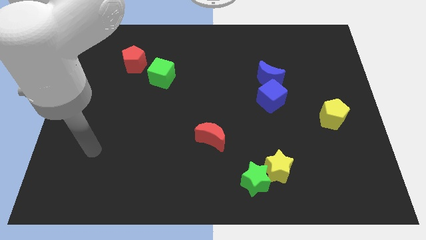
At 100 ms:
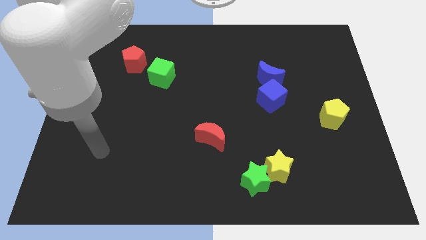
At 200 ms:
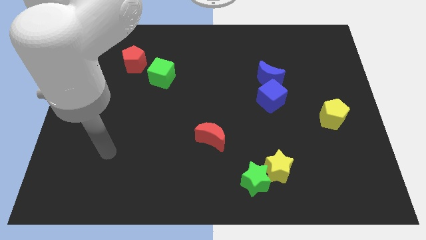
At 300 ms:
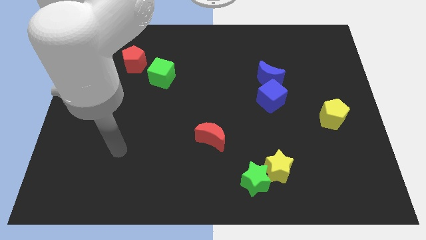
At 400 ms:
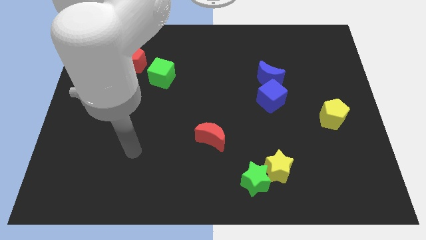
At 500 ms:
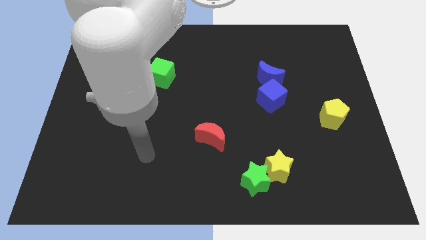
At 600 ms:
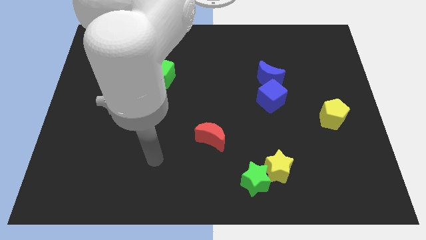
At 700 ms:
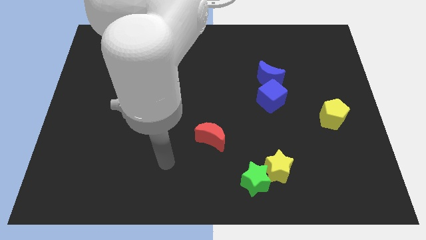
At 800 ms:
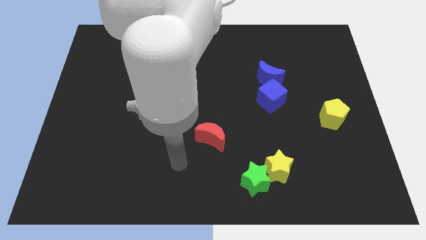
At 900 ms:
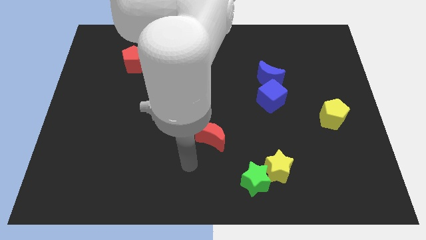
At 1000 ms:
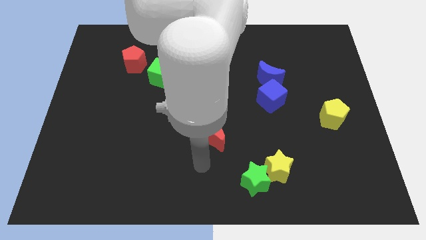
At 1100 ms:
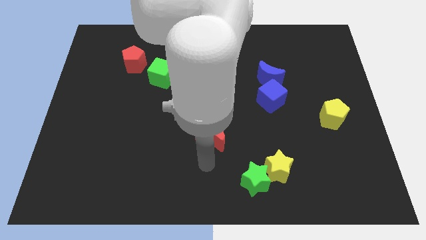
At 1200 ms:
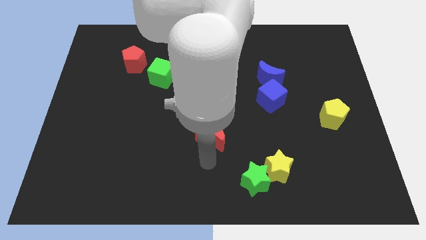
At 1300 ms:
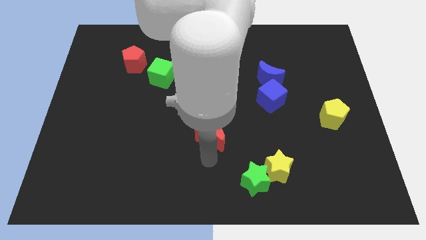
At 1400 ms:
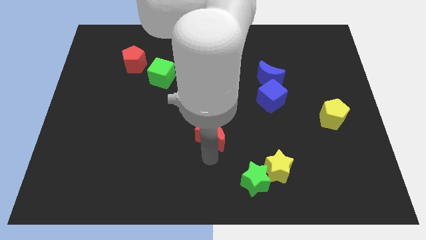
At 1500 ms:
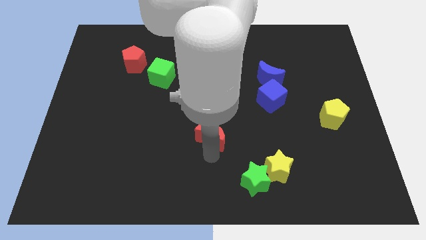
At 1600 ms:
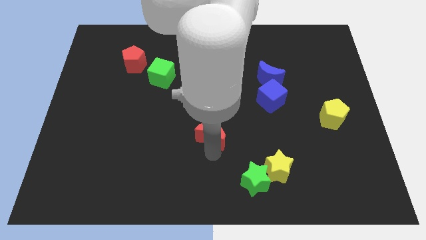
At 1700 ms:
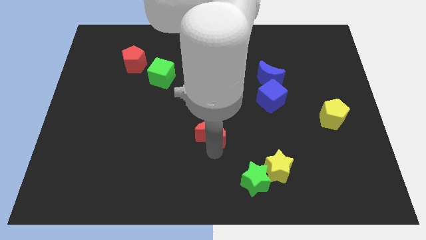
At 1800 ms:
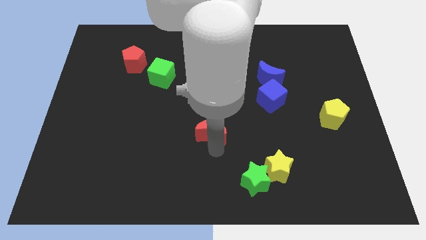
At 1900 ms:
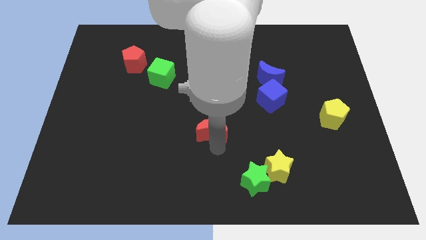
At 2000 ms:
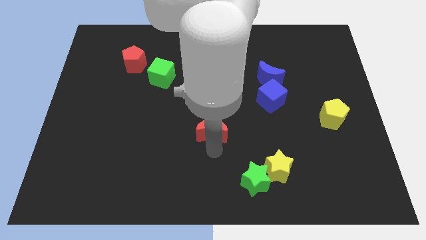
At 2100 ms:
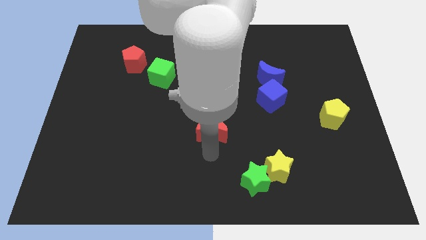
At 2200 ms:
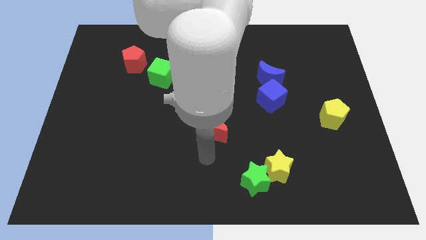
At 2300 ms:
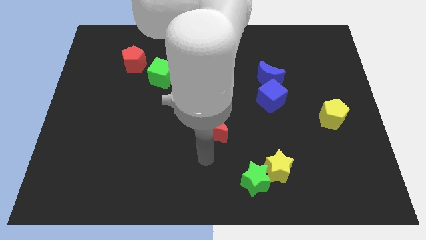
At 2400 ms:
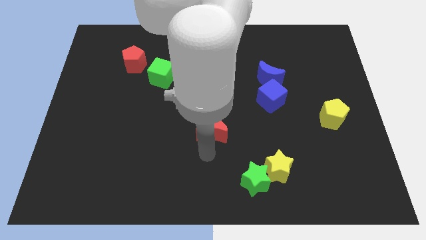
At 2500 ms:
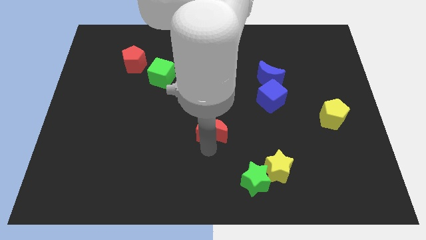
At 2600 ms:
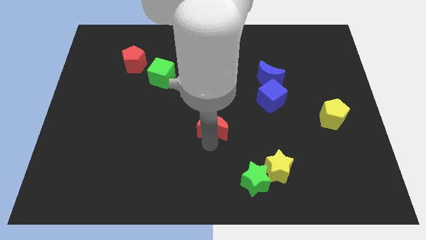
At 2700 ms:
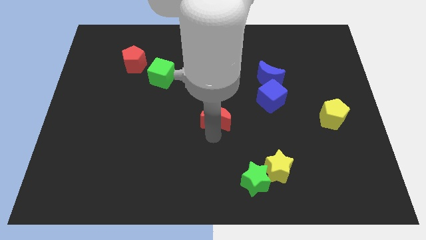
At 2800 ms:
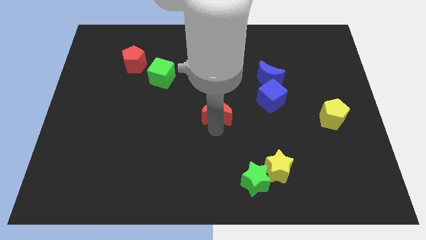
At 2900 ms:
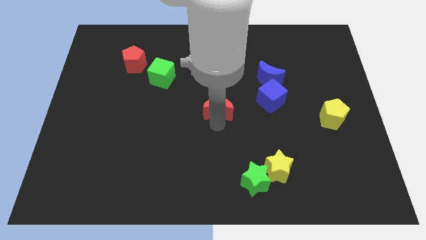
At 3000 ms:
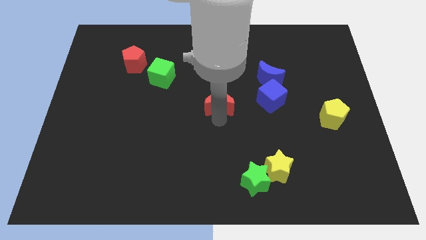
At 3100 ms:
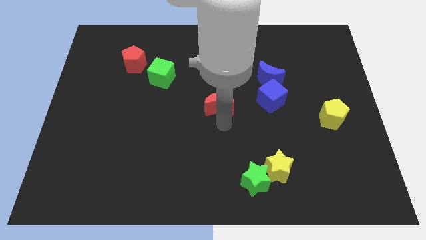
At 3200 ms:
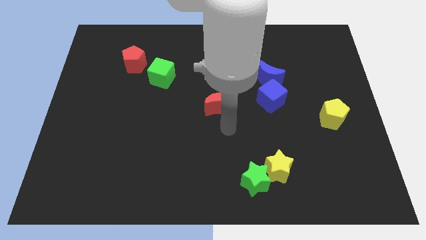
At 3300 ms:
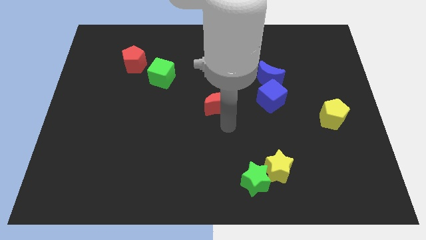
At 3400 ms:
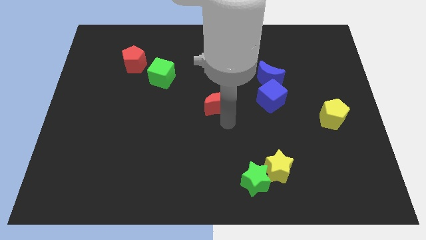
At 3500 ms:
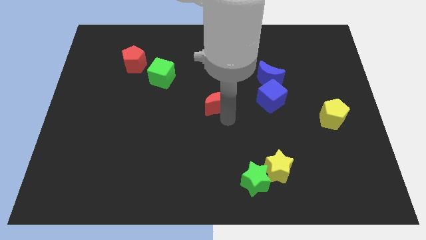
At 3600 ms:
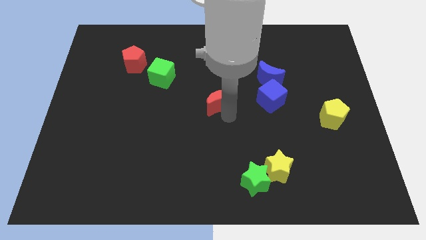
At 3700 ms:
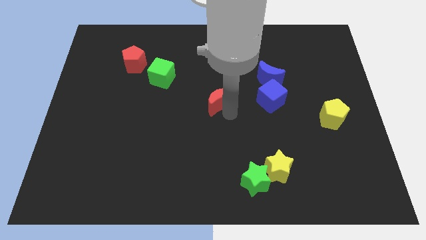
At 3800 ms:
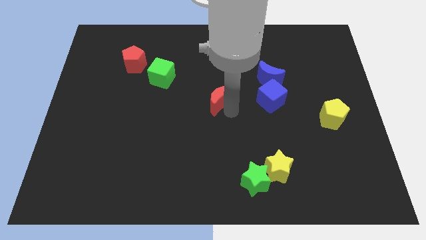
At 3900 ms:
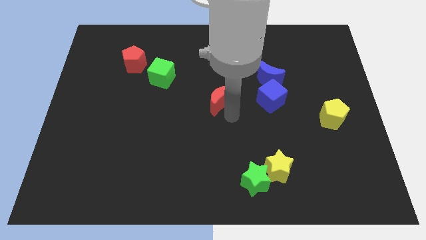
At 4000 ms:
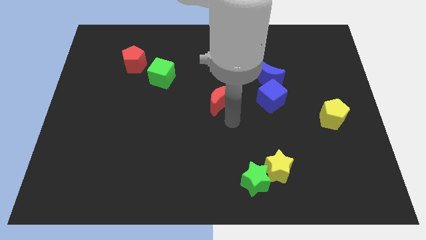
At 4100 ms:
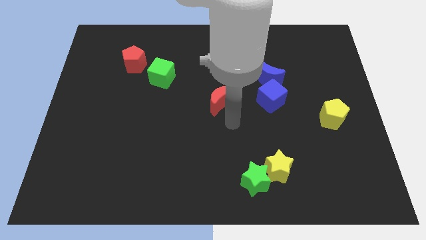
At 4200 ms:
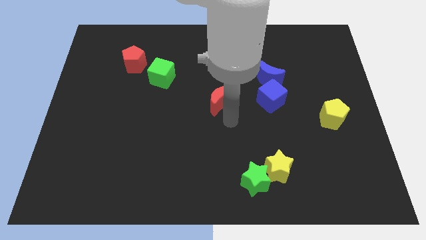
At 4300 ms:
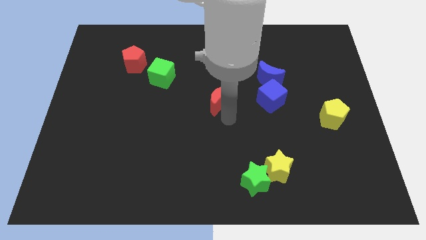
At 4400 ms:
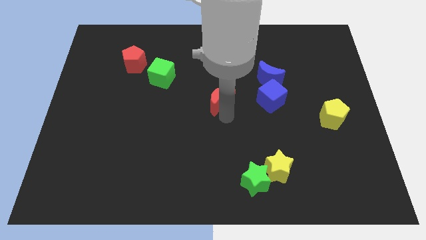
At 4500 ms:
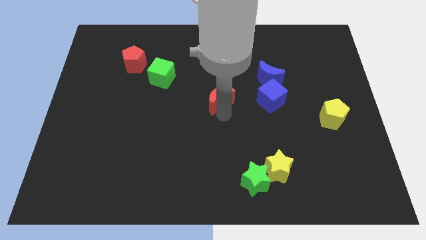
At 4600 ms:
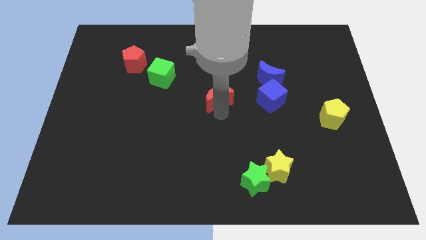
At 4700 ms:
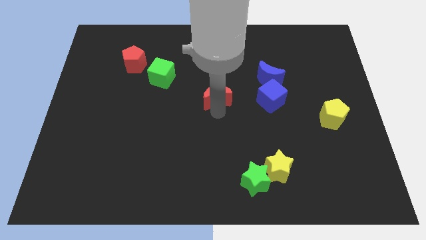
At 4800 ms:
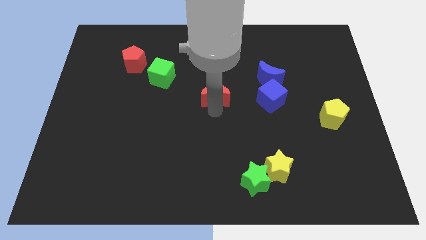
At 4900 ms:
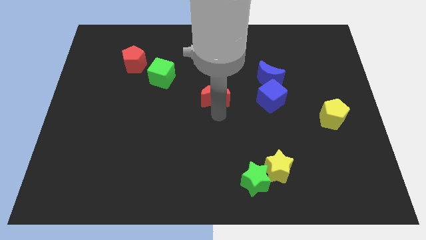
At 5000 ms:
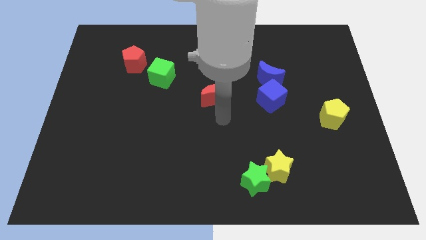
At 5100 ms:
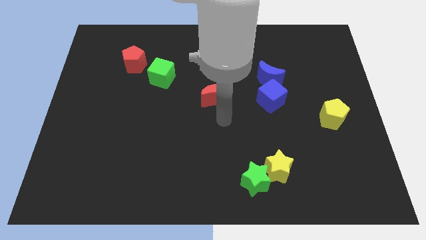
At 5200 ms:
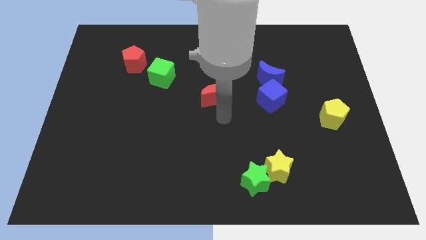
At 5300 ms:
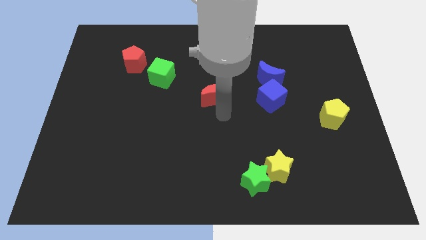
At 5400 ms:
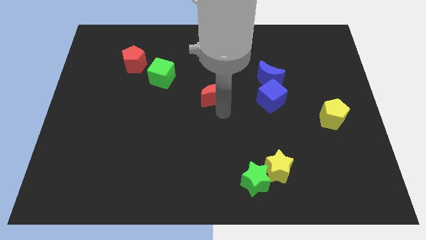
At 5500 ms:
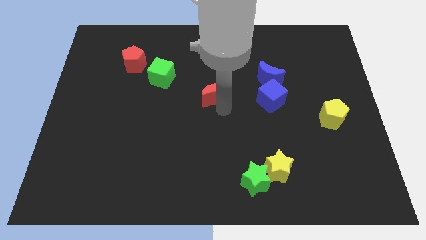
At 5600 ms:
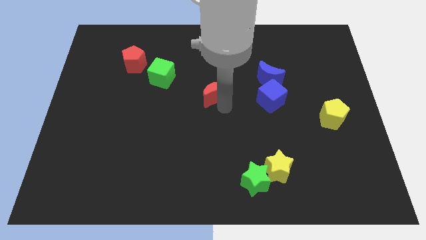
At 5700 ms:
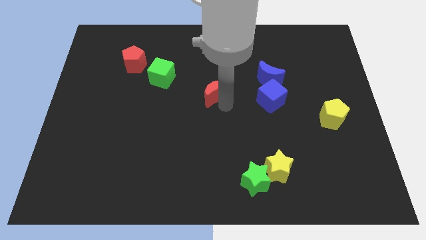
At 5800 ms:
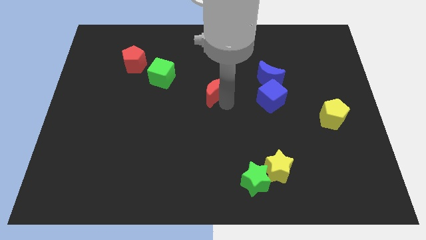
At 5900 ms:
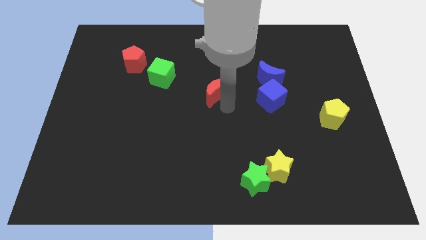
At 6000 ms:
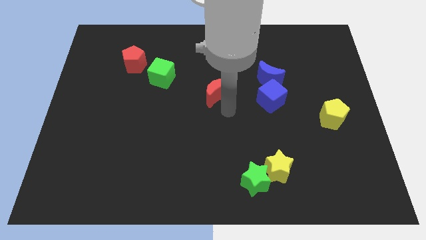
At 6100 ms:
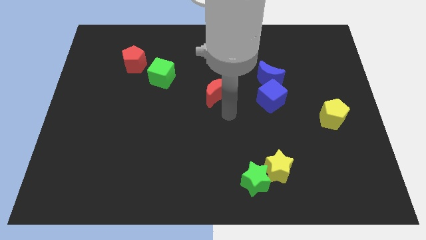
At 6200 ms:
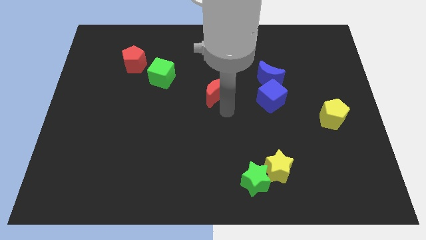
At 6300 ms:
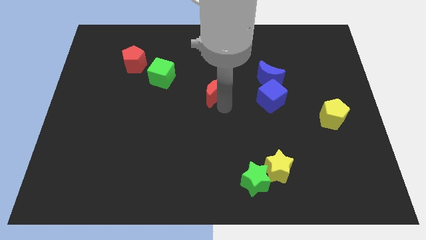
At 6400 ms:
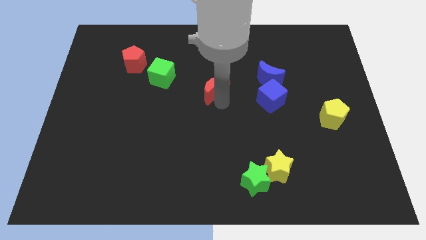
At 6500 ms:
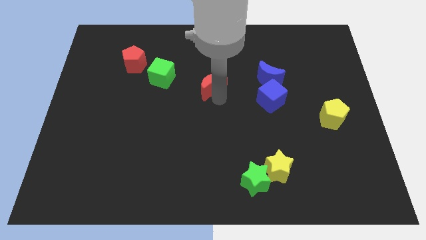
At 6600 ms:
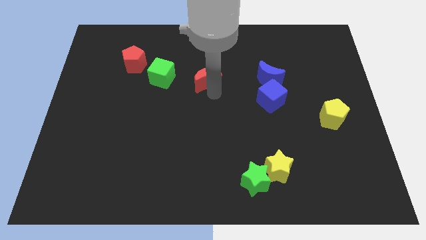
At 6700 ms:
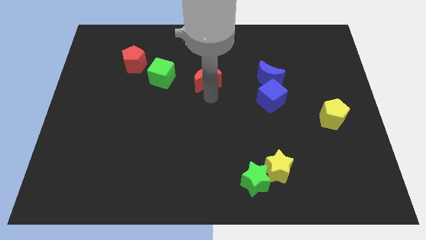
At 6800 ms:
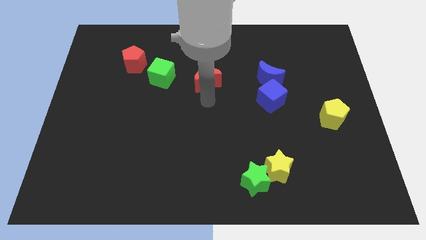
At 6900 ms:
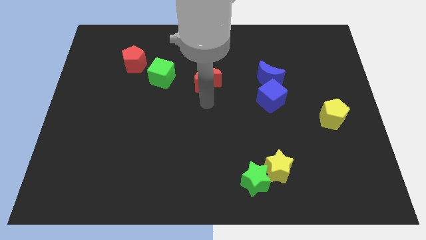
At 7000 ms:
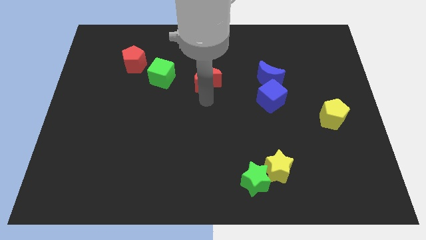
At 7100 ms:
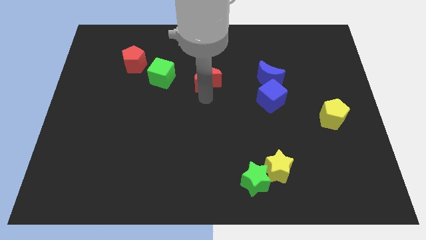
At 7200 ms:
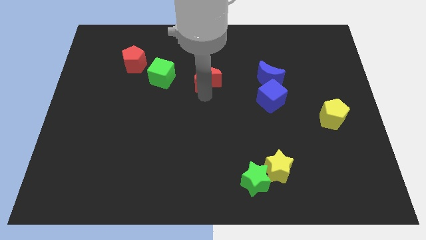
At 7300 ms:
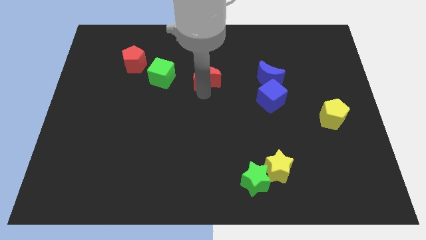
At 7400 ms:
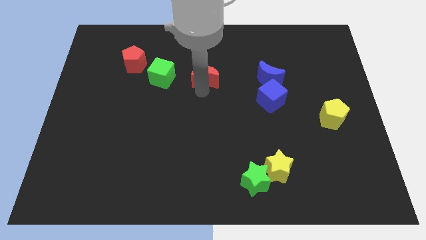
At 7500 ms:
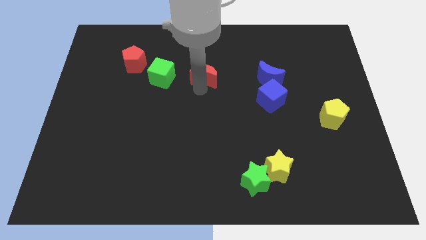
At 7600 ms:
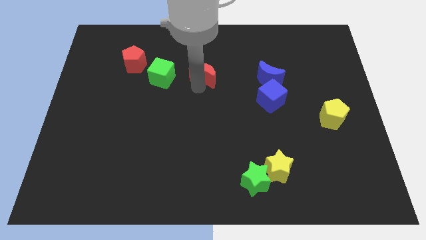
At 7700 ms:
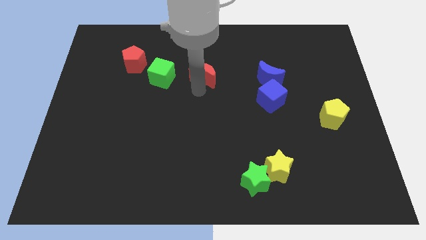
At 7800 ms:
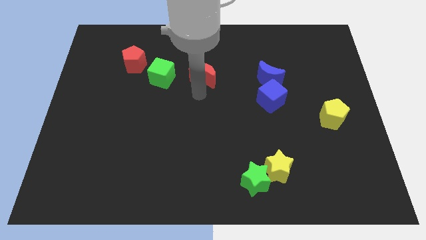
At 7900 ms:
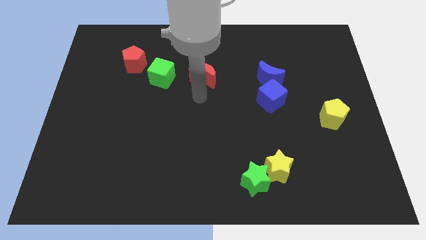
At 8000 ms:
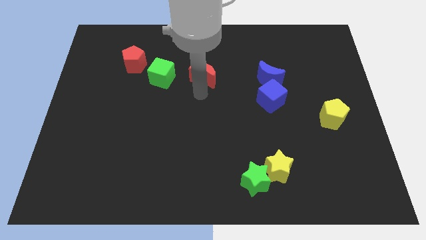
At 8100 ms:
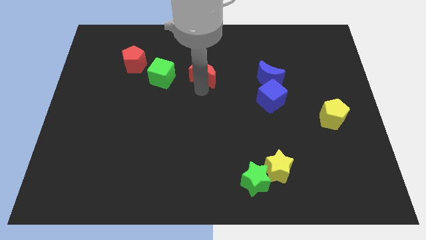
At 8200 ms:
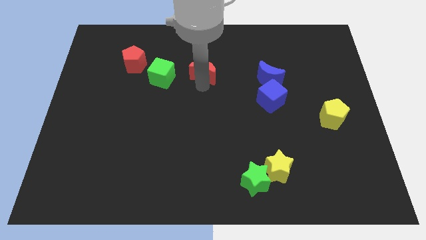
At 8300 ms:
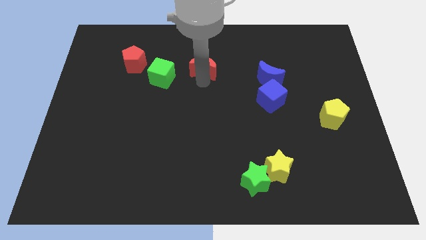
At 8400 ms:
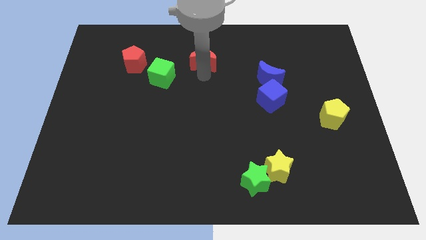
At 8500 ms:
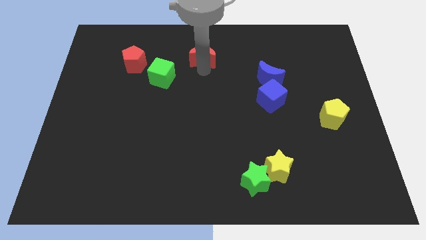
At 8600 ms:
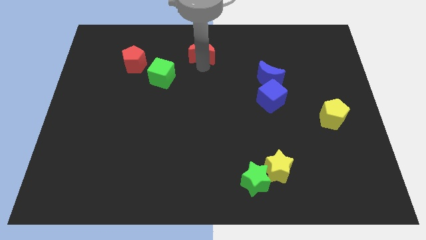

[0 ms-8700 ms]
move the red moon to the towards your base
